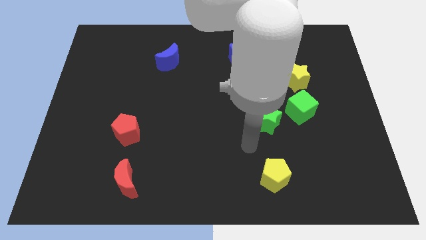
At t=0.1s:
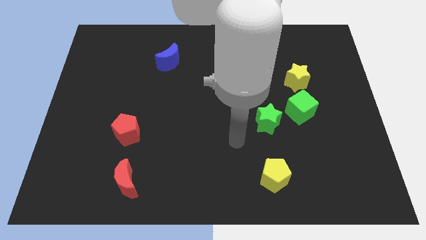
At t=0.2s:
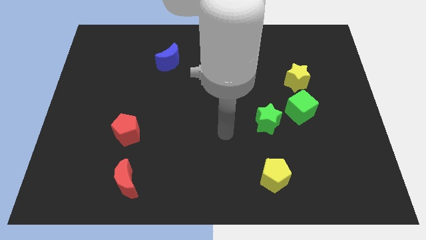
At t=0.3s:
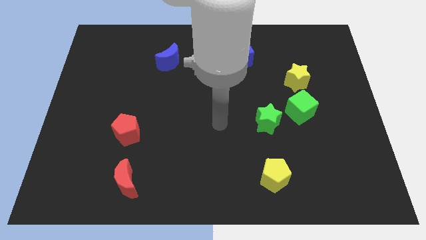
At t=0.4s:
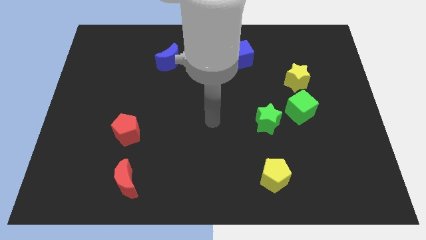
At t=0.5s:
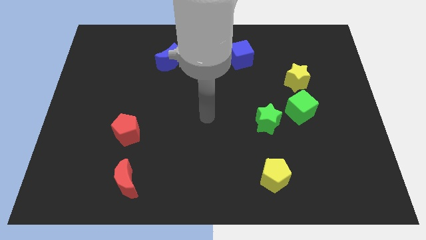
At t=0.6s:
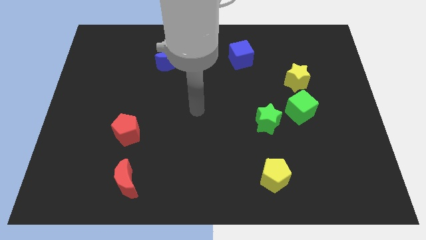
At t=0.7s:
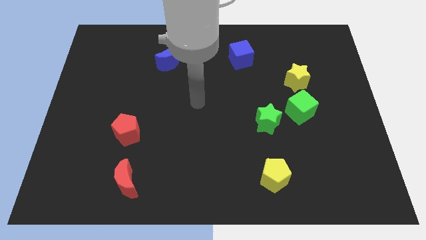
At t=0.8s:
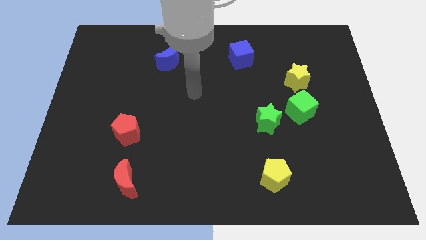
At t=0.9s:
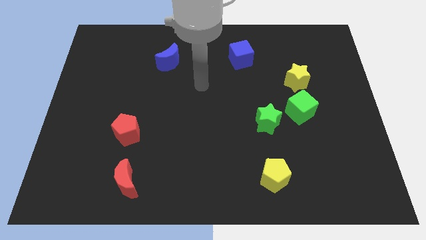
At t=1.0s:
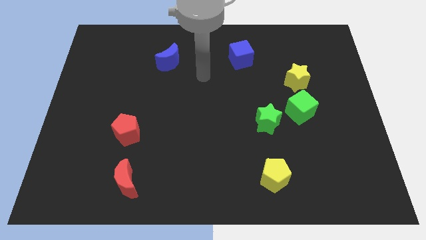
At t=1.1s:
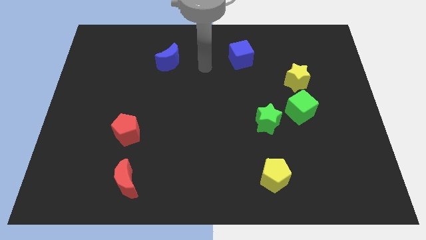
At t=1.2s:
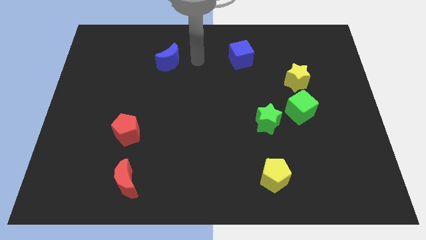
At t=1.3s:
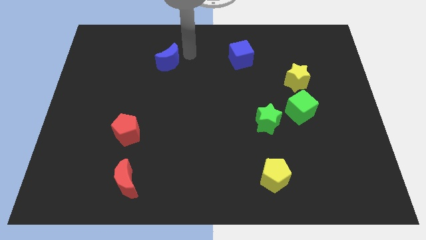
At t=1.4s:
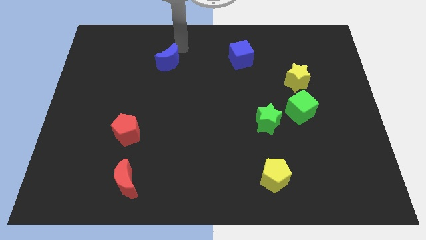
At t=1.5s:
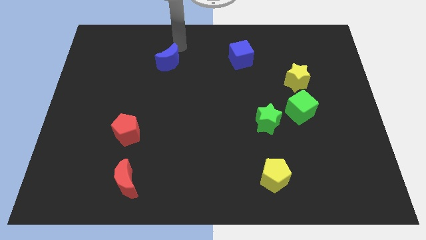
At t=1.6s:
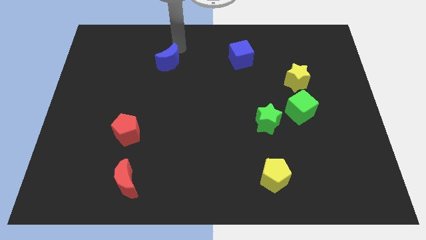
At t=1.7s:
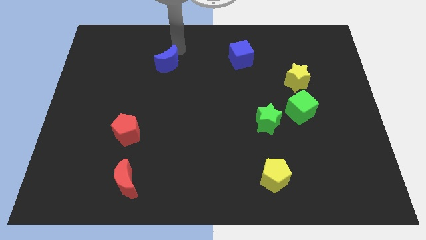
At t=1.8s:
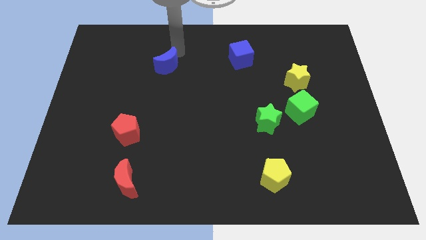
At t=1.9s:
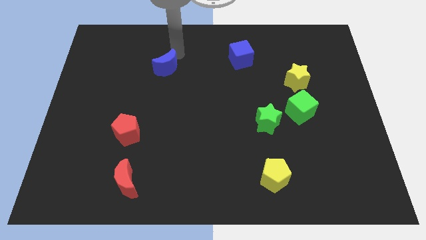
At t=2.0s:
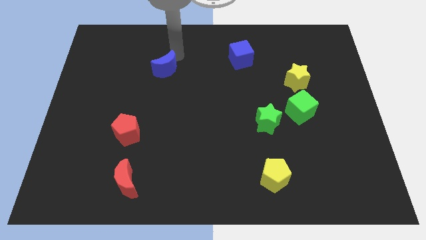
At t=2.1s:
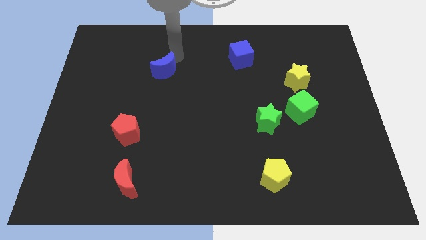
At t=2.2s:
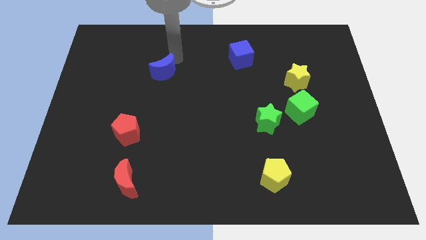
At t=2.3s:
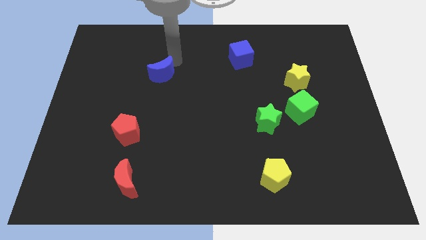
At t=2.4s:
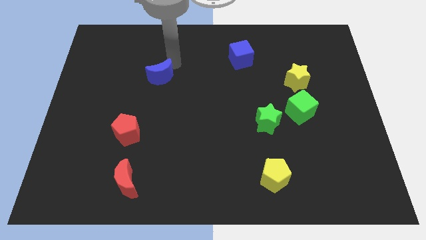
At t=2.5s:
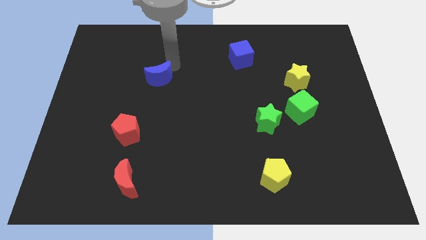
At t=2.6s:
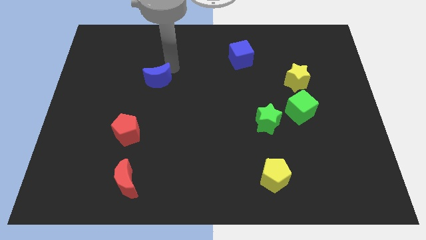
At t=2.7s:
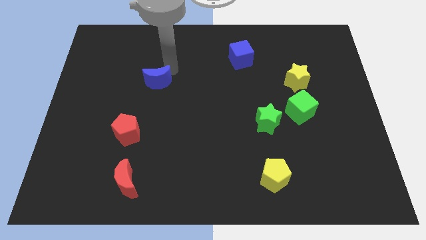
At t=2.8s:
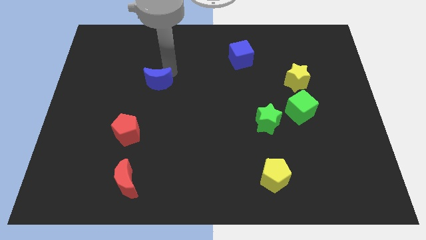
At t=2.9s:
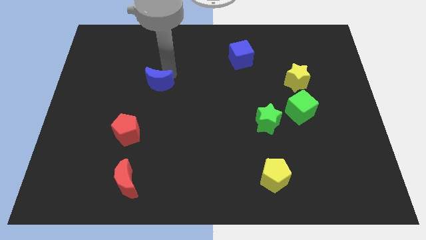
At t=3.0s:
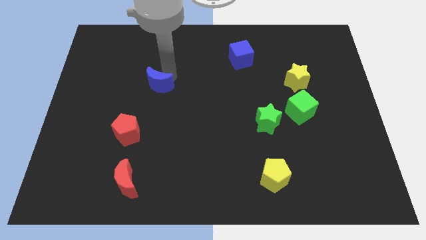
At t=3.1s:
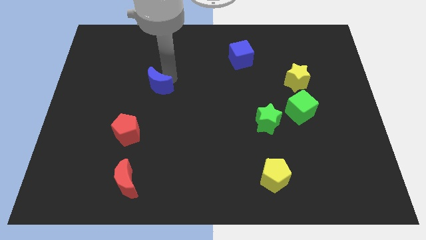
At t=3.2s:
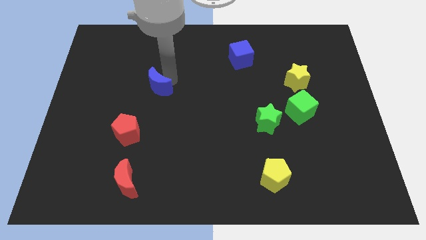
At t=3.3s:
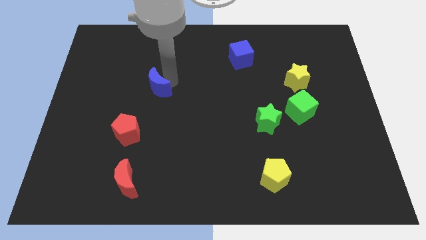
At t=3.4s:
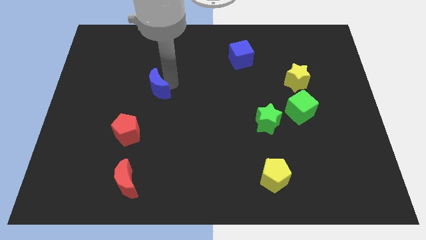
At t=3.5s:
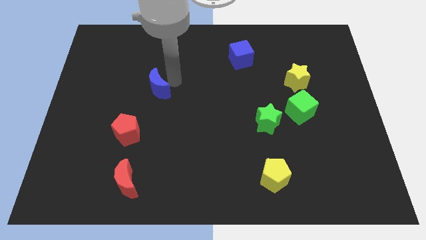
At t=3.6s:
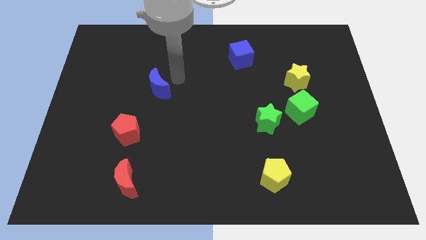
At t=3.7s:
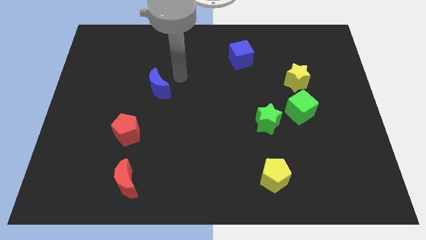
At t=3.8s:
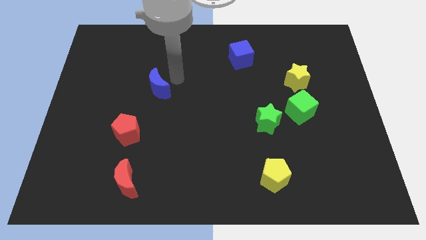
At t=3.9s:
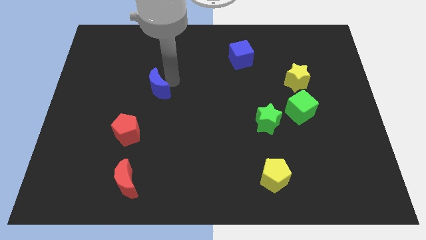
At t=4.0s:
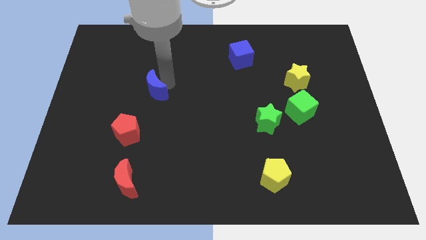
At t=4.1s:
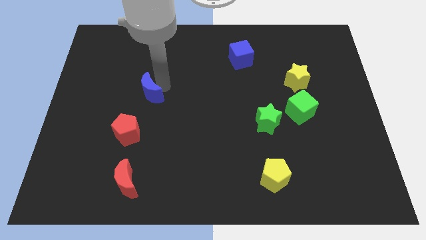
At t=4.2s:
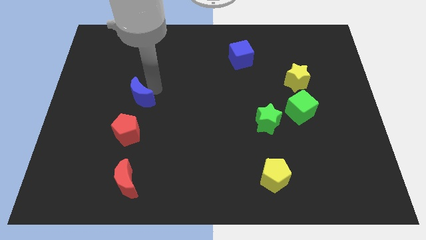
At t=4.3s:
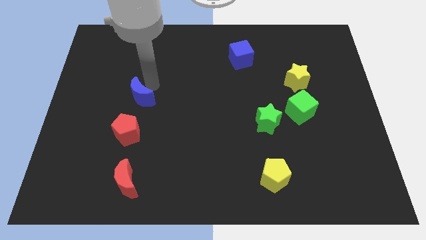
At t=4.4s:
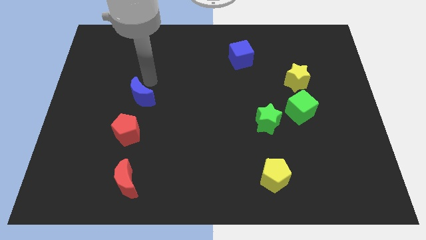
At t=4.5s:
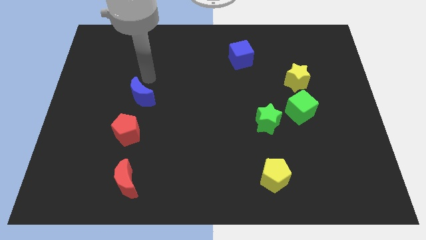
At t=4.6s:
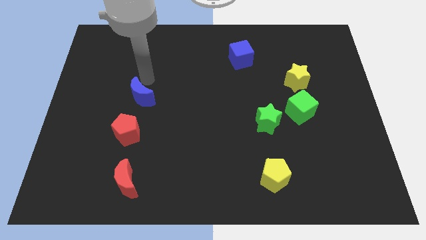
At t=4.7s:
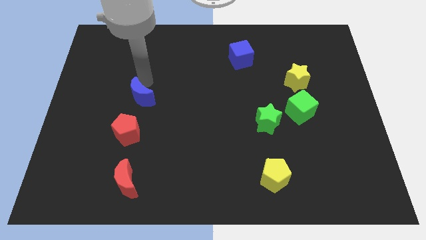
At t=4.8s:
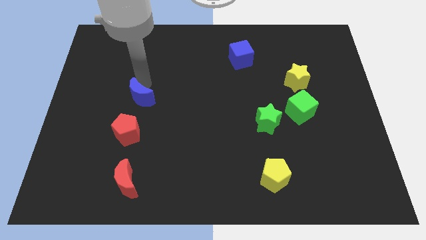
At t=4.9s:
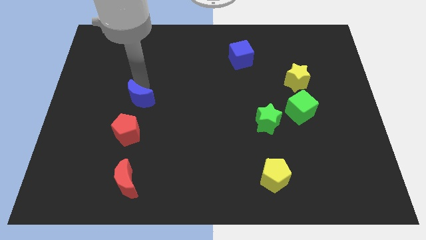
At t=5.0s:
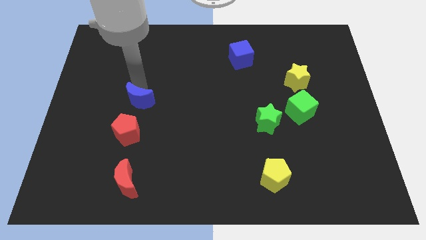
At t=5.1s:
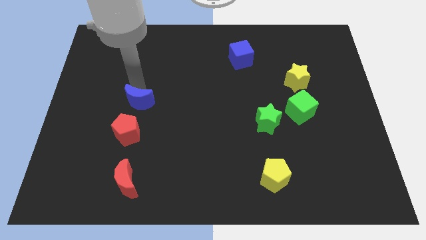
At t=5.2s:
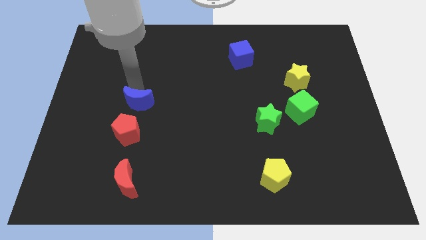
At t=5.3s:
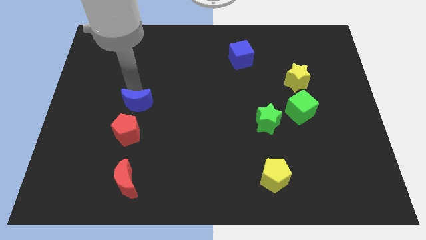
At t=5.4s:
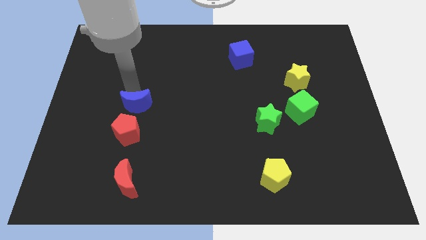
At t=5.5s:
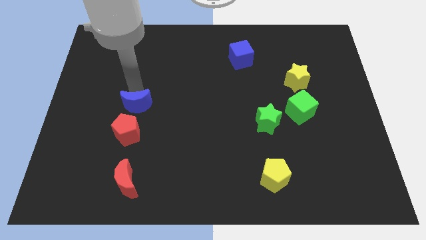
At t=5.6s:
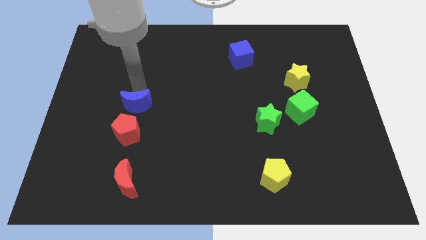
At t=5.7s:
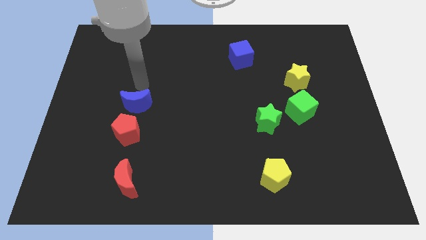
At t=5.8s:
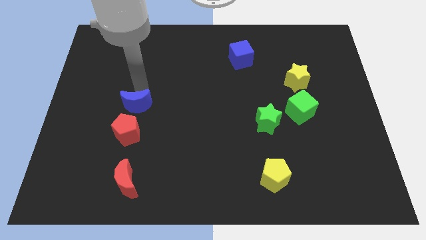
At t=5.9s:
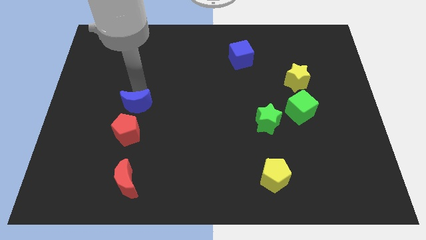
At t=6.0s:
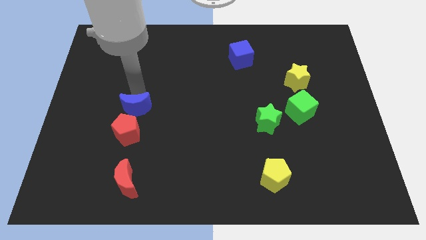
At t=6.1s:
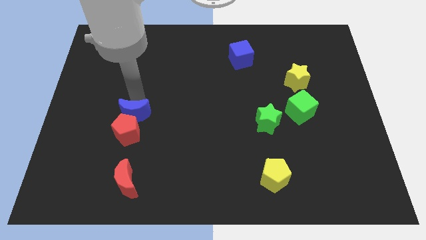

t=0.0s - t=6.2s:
put the blue moon to the red pentagon

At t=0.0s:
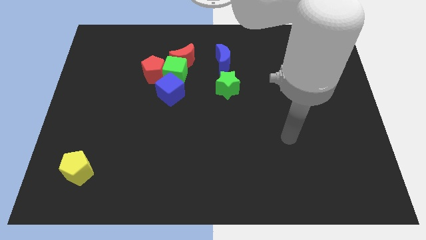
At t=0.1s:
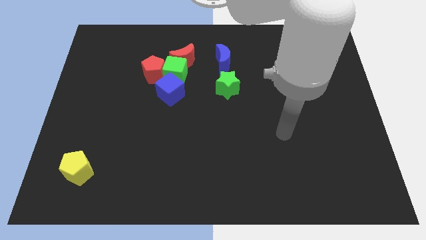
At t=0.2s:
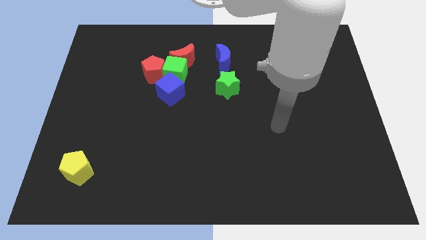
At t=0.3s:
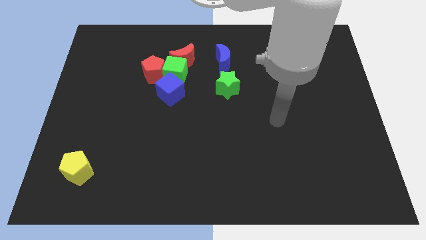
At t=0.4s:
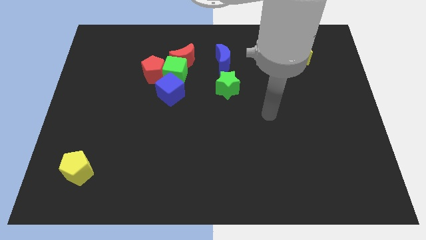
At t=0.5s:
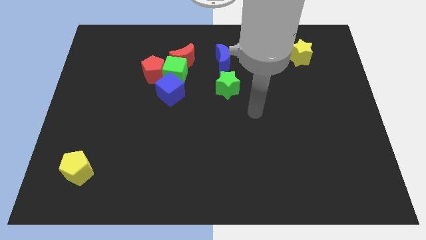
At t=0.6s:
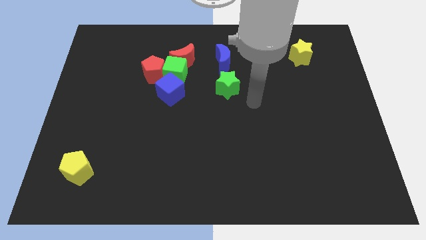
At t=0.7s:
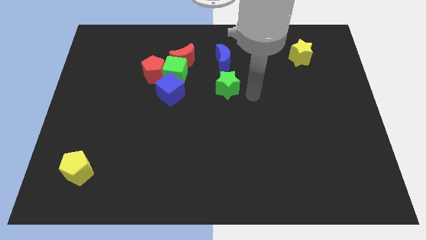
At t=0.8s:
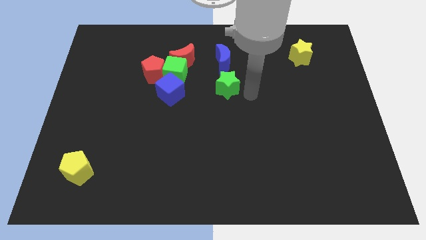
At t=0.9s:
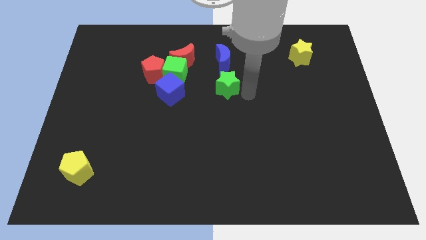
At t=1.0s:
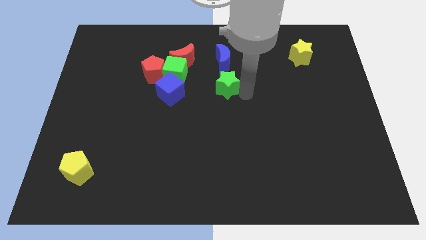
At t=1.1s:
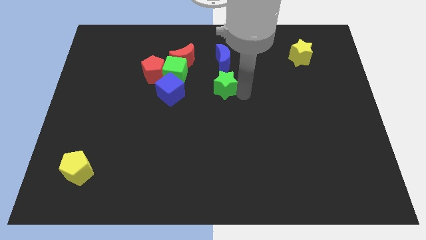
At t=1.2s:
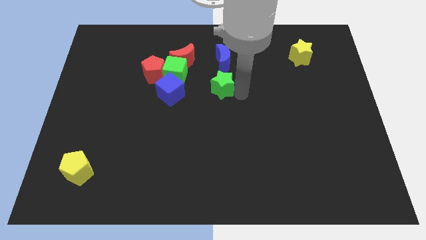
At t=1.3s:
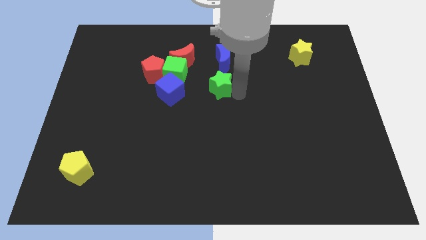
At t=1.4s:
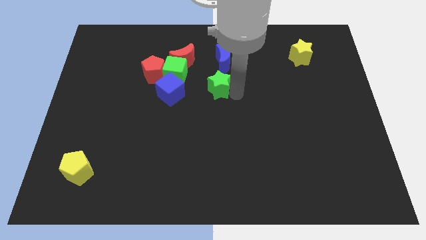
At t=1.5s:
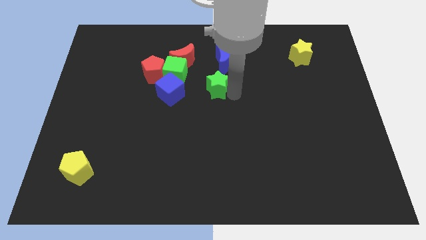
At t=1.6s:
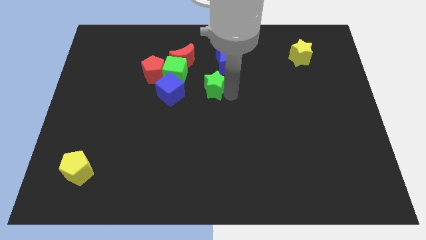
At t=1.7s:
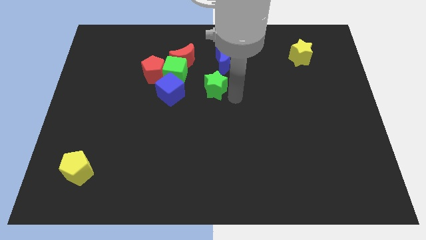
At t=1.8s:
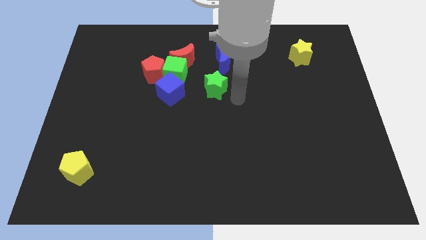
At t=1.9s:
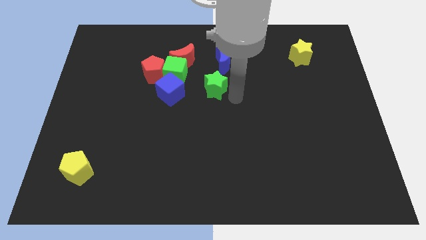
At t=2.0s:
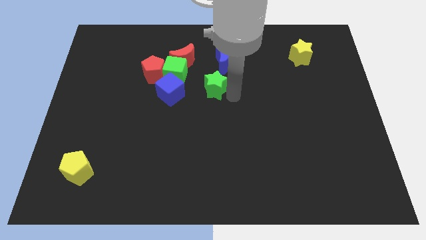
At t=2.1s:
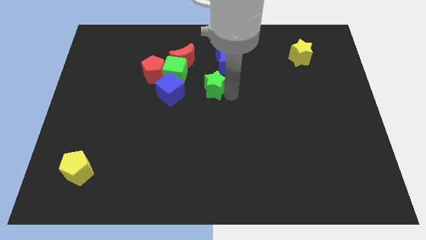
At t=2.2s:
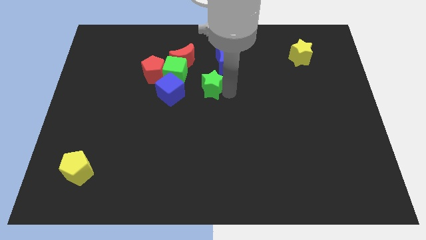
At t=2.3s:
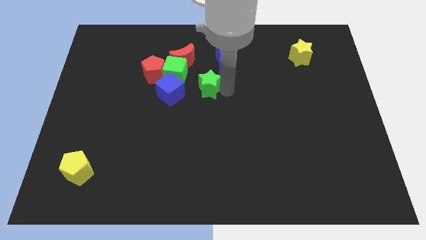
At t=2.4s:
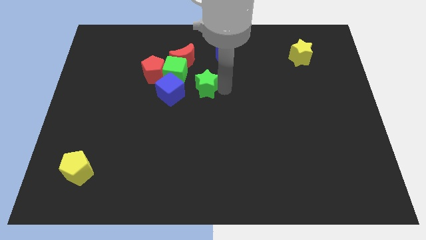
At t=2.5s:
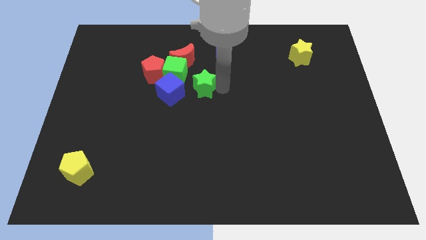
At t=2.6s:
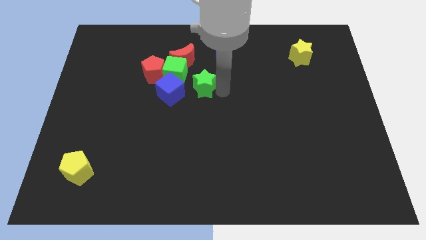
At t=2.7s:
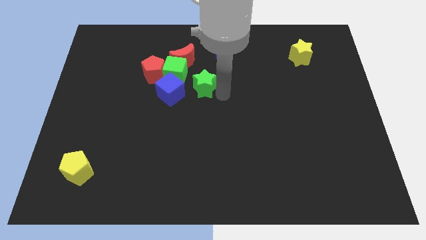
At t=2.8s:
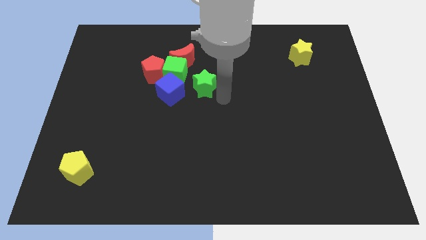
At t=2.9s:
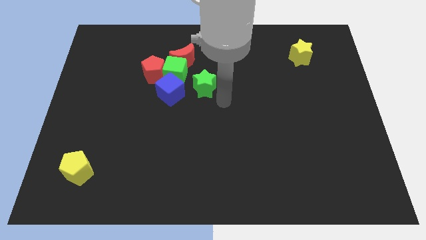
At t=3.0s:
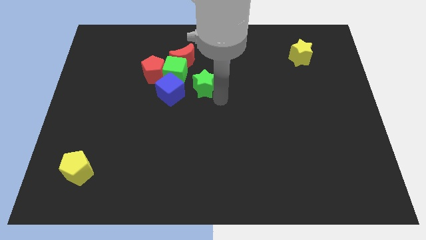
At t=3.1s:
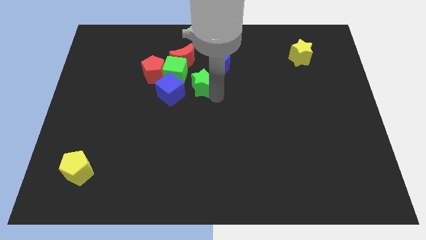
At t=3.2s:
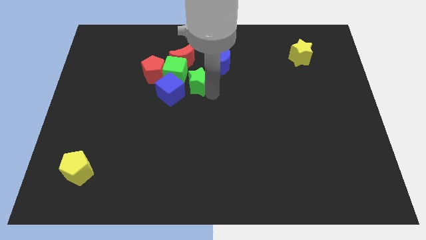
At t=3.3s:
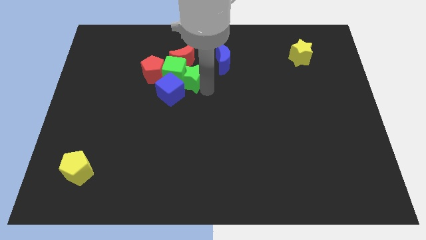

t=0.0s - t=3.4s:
slide the green star towards the green cube
